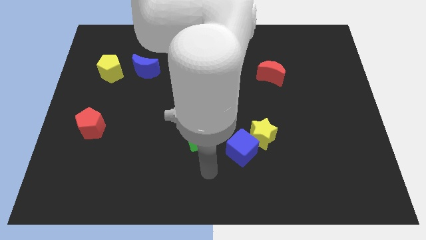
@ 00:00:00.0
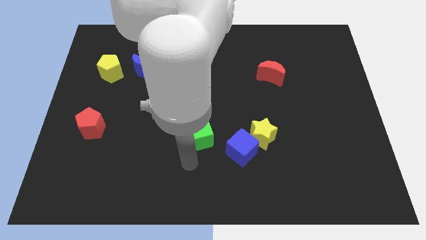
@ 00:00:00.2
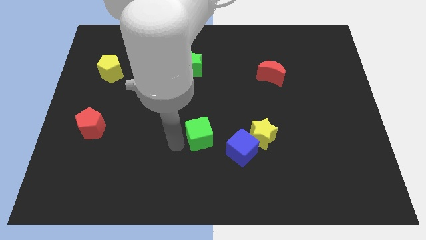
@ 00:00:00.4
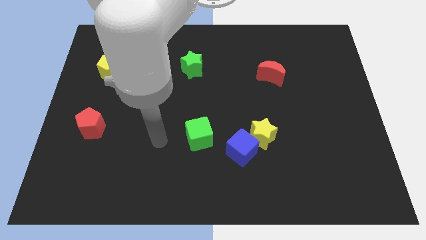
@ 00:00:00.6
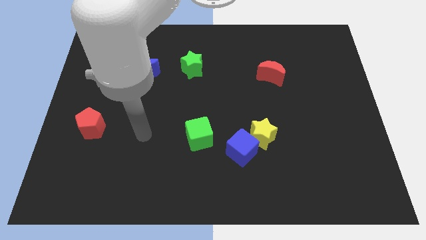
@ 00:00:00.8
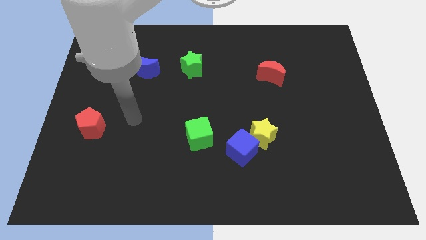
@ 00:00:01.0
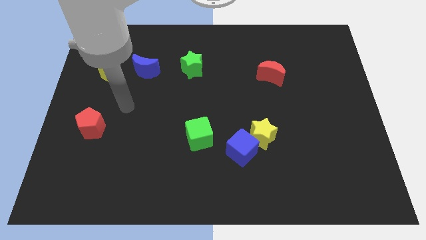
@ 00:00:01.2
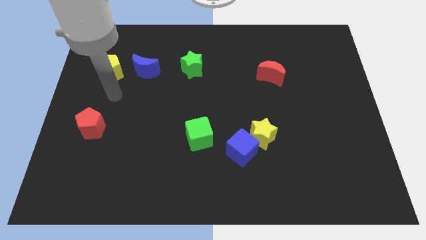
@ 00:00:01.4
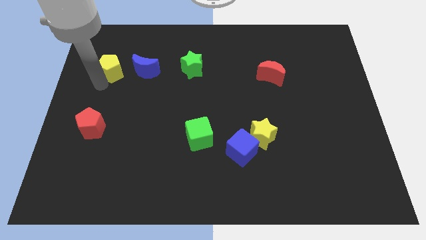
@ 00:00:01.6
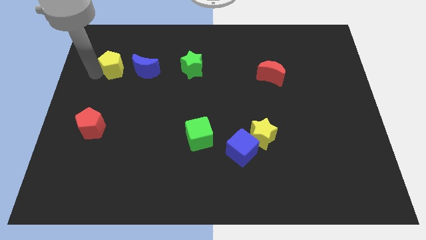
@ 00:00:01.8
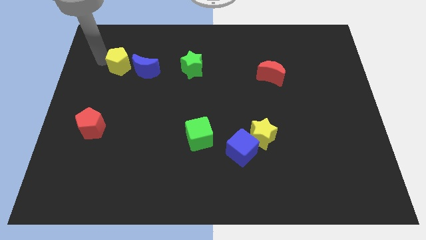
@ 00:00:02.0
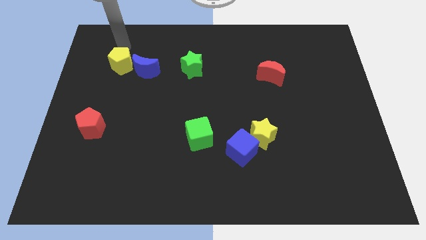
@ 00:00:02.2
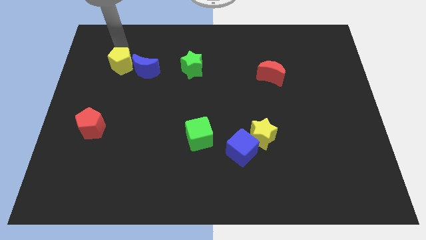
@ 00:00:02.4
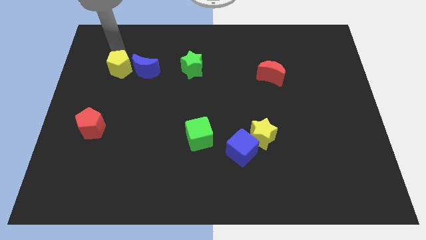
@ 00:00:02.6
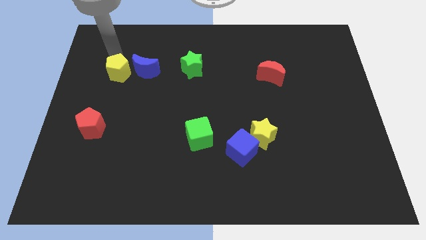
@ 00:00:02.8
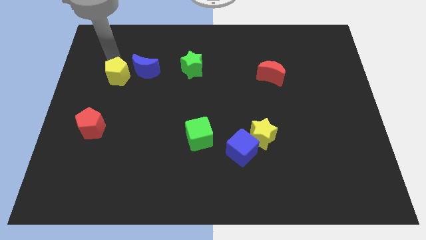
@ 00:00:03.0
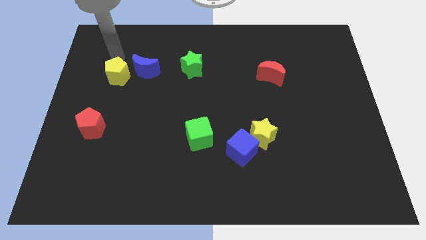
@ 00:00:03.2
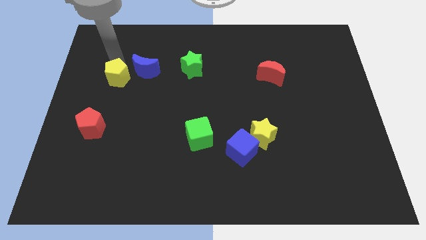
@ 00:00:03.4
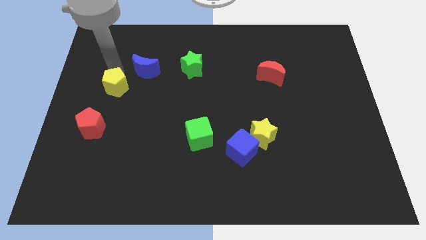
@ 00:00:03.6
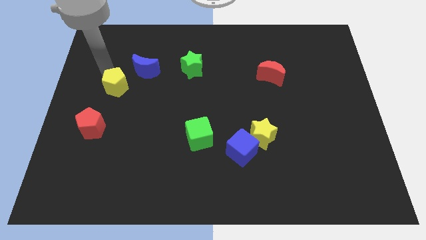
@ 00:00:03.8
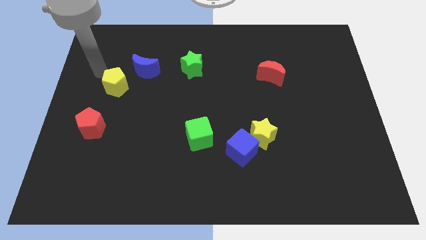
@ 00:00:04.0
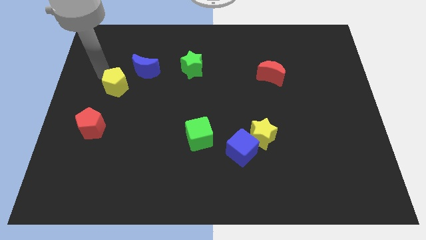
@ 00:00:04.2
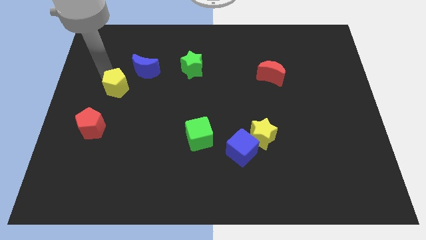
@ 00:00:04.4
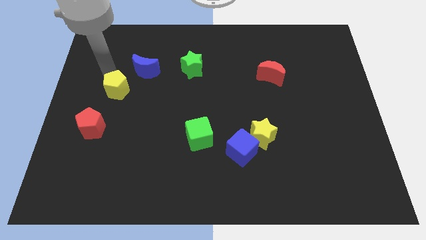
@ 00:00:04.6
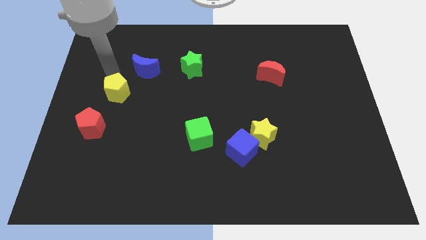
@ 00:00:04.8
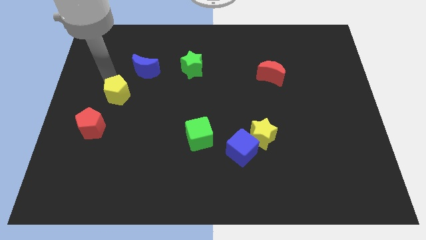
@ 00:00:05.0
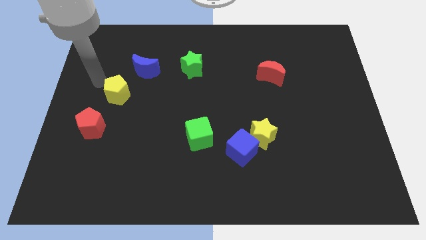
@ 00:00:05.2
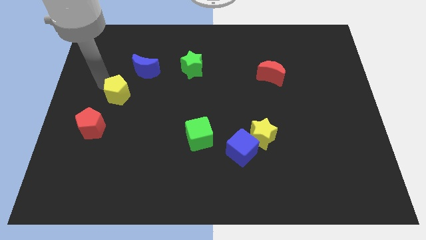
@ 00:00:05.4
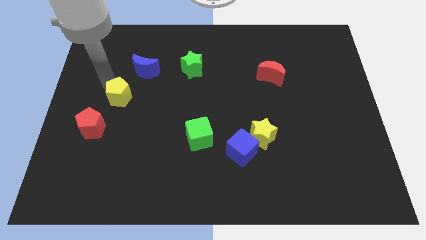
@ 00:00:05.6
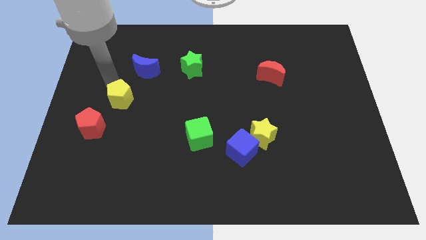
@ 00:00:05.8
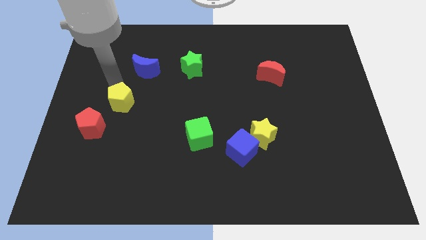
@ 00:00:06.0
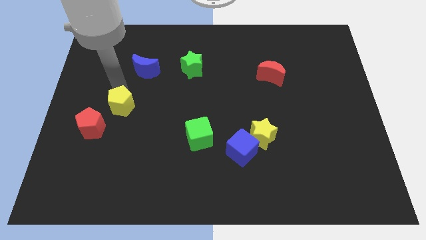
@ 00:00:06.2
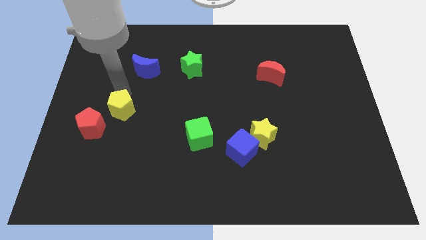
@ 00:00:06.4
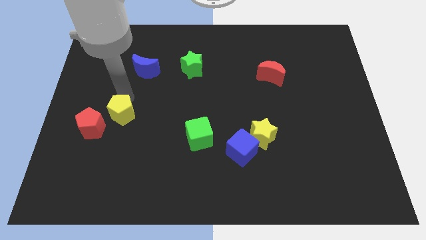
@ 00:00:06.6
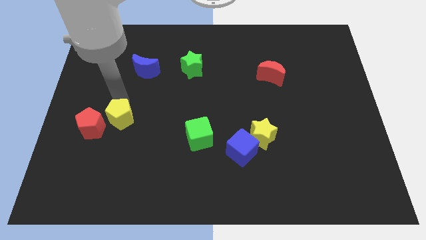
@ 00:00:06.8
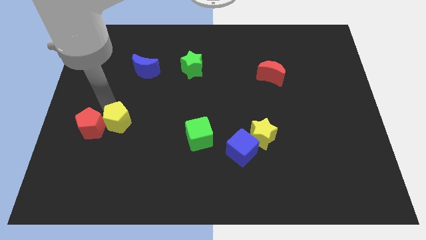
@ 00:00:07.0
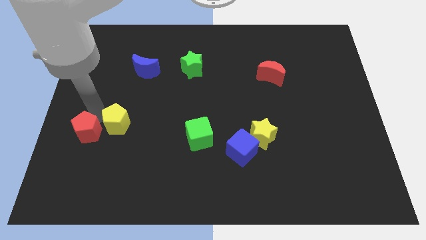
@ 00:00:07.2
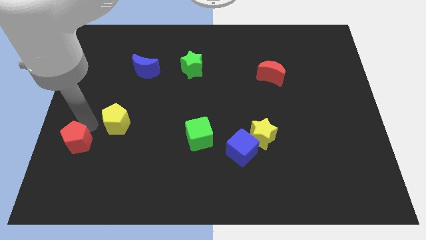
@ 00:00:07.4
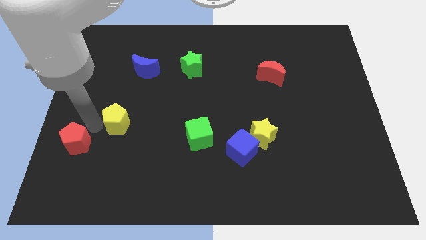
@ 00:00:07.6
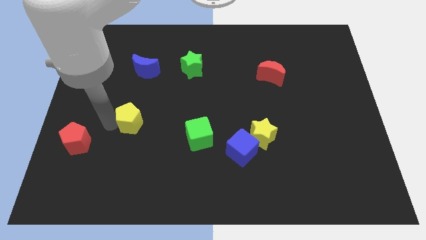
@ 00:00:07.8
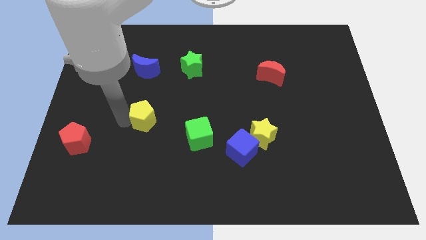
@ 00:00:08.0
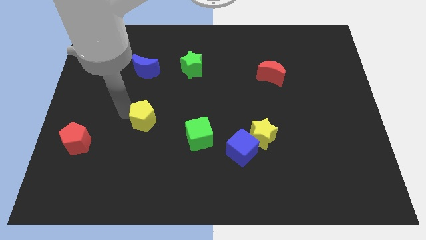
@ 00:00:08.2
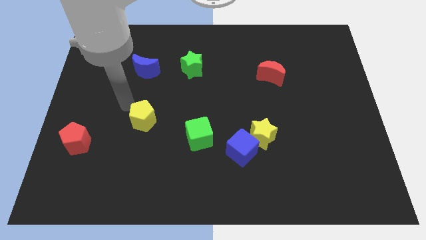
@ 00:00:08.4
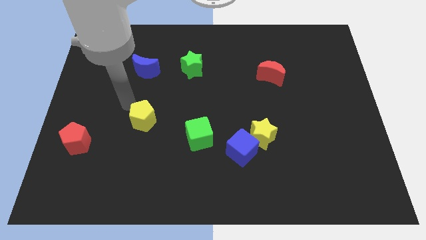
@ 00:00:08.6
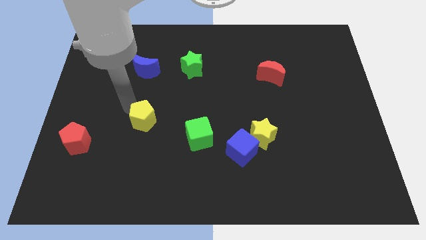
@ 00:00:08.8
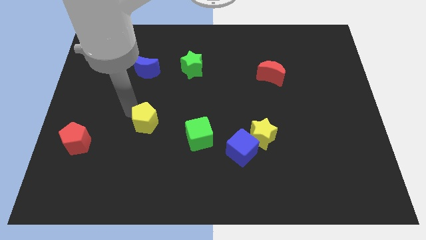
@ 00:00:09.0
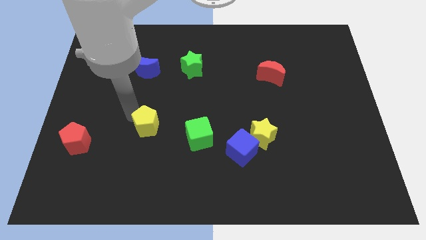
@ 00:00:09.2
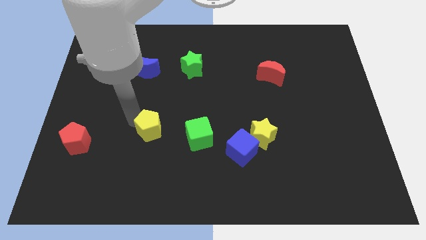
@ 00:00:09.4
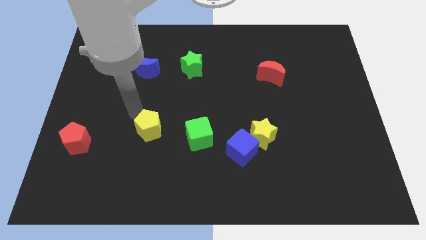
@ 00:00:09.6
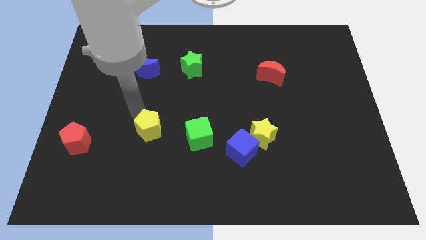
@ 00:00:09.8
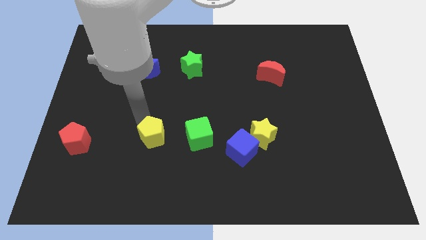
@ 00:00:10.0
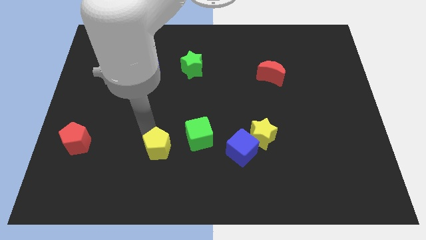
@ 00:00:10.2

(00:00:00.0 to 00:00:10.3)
move the yellow pentagon to the bottom left side of the green cube

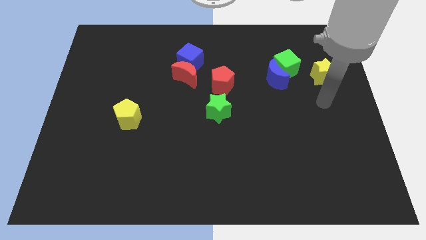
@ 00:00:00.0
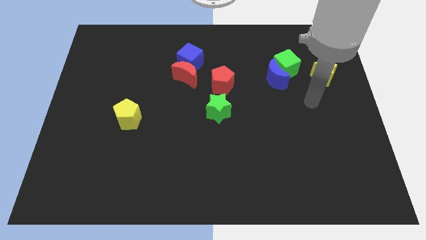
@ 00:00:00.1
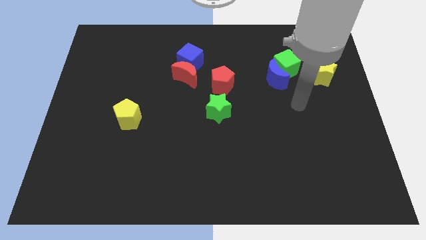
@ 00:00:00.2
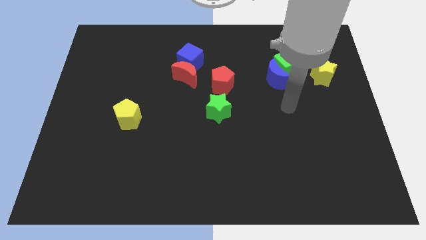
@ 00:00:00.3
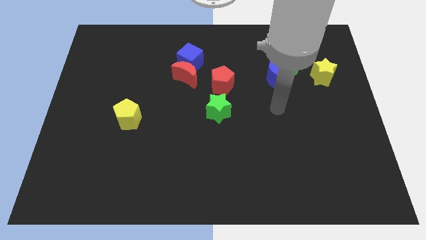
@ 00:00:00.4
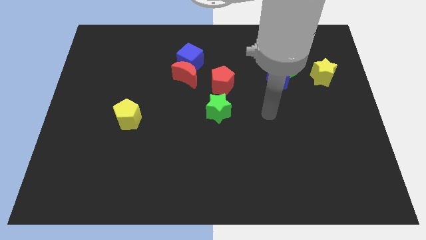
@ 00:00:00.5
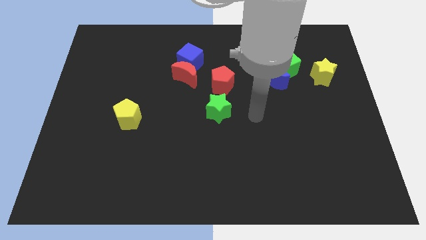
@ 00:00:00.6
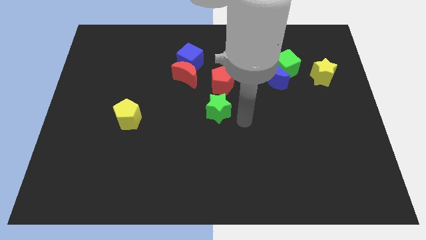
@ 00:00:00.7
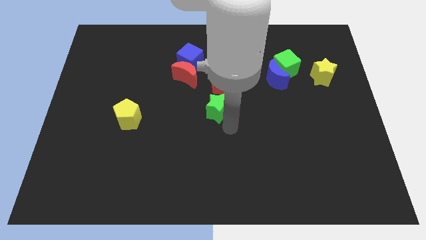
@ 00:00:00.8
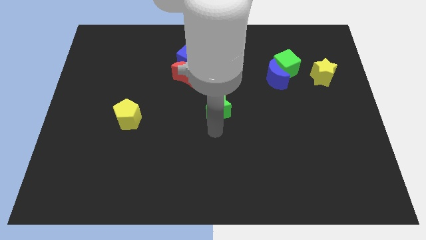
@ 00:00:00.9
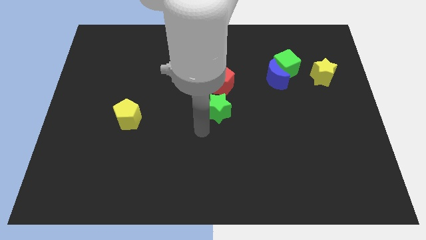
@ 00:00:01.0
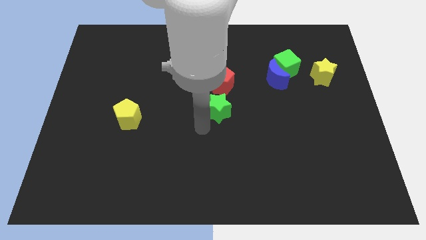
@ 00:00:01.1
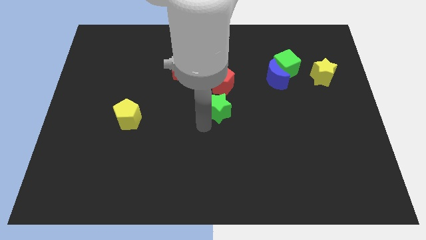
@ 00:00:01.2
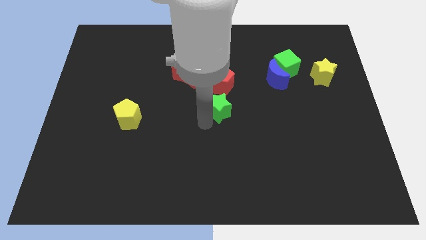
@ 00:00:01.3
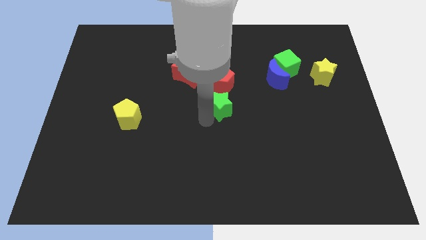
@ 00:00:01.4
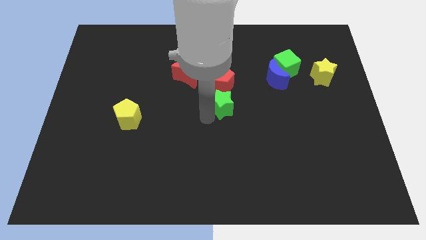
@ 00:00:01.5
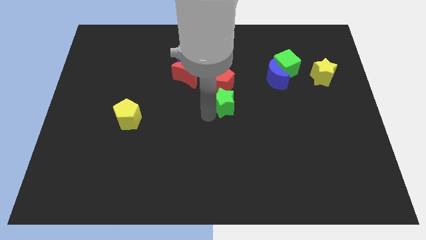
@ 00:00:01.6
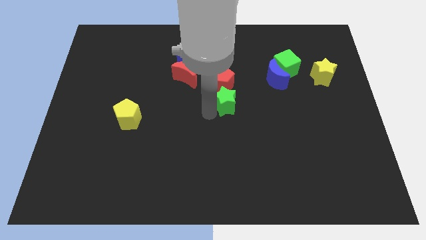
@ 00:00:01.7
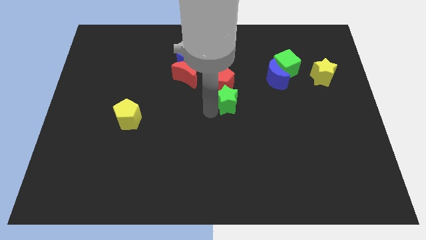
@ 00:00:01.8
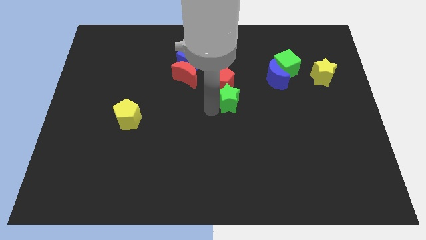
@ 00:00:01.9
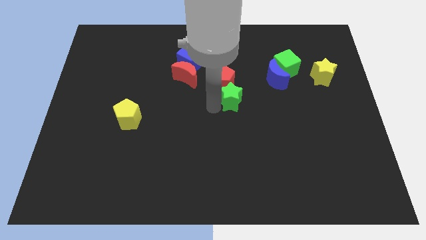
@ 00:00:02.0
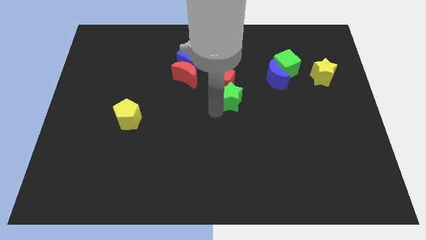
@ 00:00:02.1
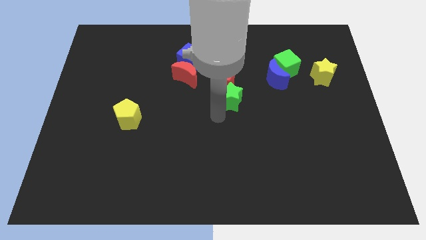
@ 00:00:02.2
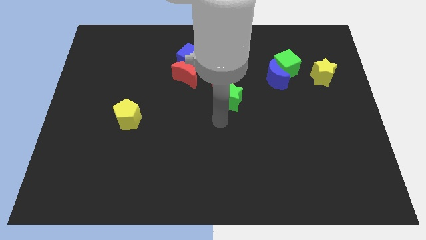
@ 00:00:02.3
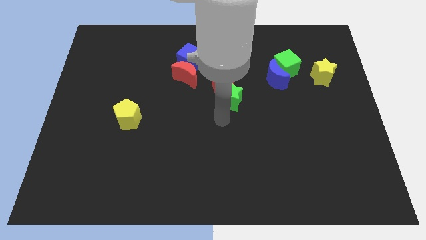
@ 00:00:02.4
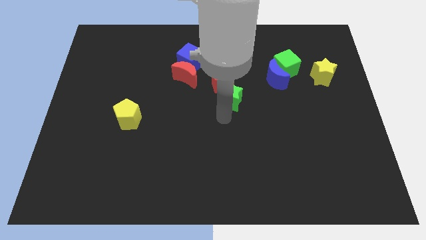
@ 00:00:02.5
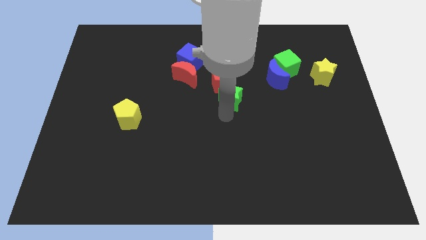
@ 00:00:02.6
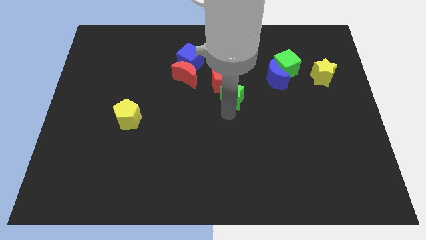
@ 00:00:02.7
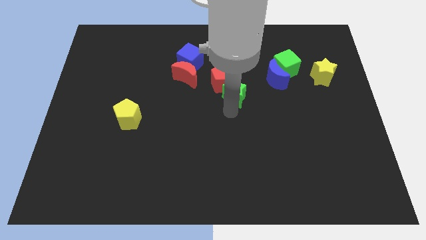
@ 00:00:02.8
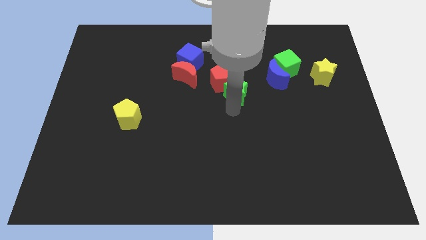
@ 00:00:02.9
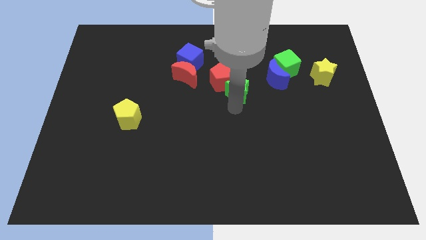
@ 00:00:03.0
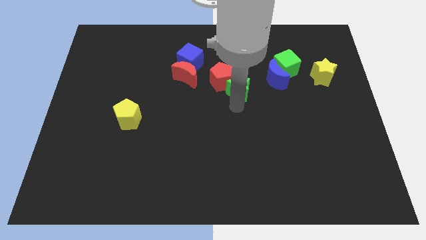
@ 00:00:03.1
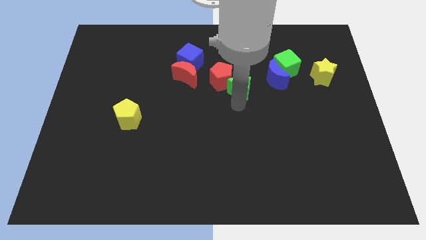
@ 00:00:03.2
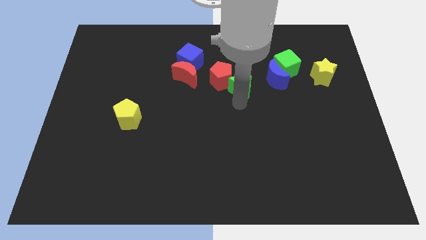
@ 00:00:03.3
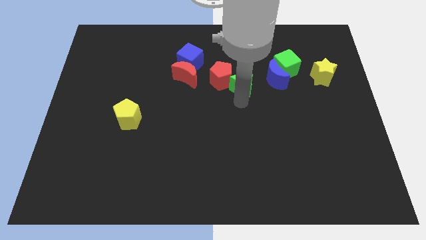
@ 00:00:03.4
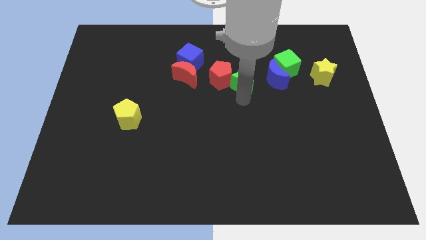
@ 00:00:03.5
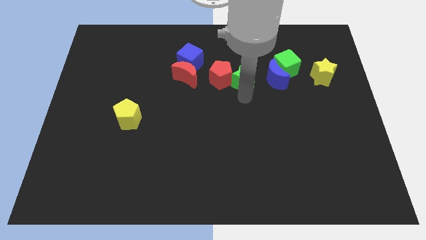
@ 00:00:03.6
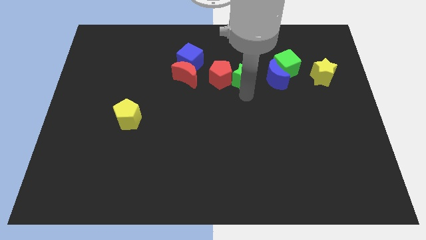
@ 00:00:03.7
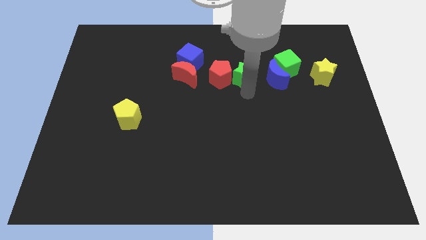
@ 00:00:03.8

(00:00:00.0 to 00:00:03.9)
push the green star to the top right of the red pentagon

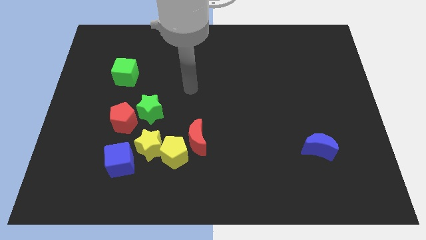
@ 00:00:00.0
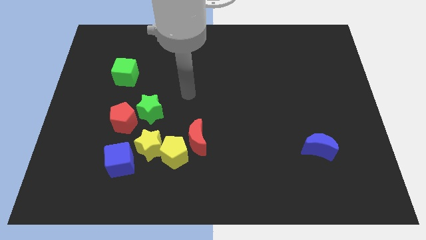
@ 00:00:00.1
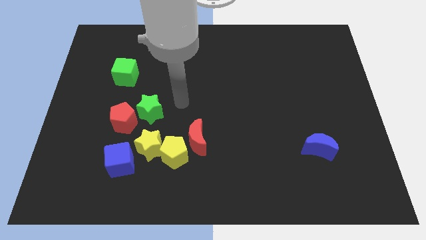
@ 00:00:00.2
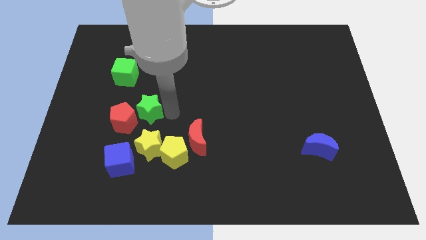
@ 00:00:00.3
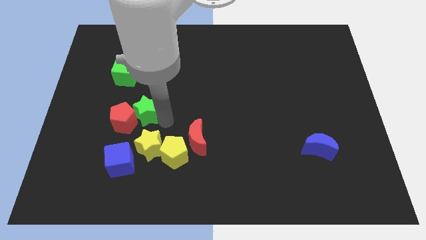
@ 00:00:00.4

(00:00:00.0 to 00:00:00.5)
slide the blue cube below the green star
